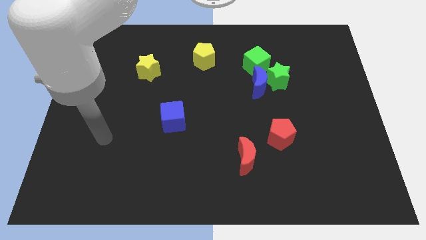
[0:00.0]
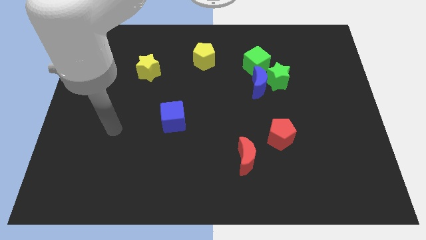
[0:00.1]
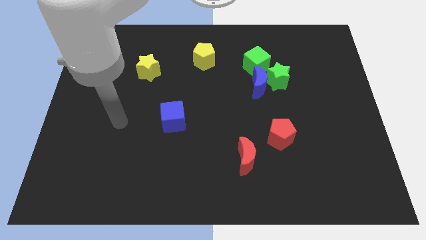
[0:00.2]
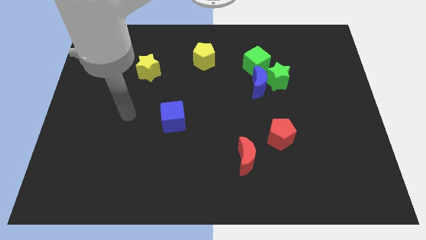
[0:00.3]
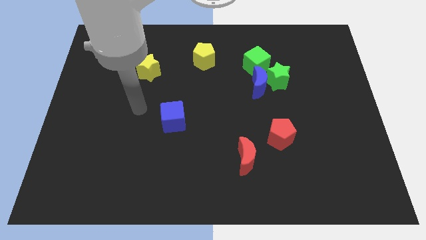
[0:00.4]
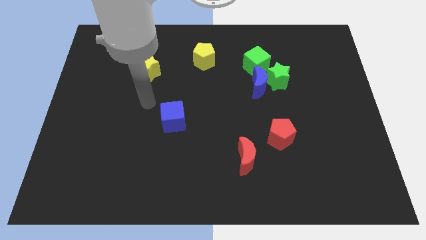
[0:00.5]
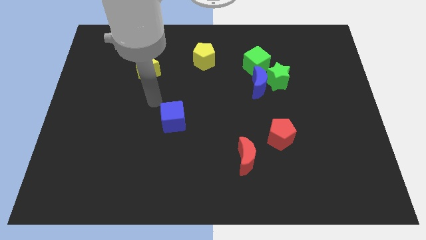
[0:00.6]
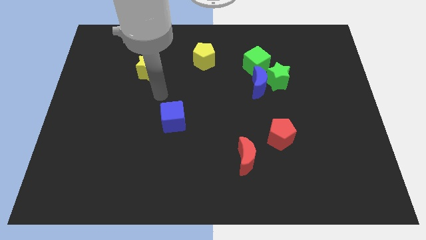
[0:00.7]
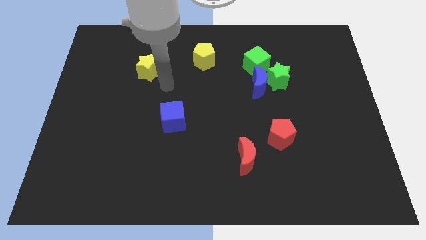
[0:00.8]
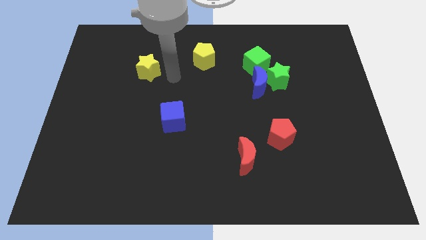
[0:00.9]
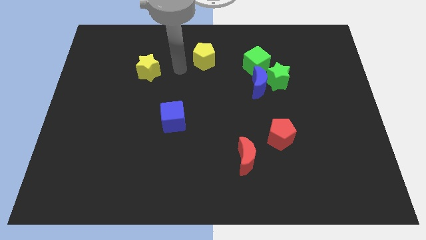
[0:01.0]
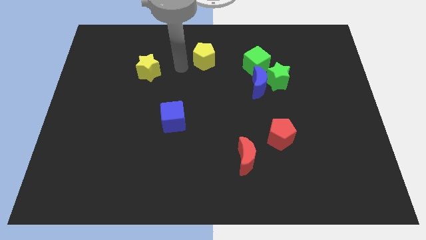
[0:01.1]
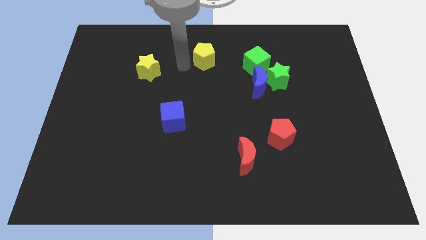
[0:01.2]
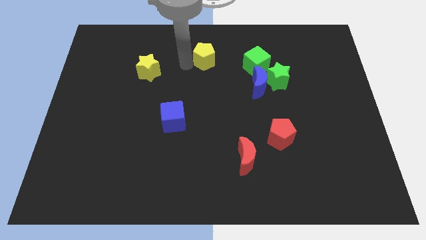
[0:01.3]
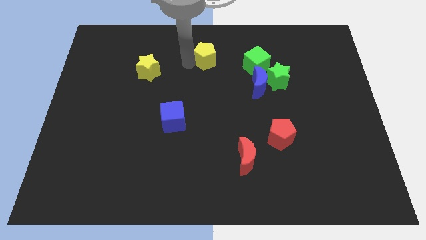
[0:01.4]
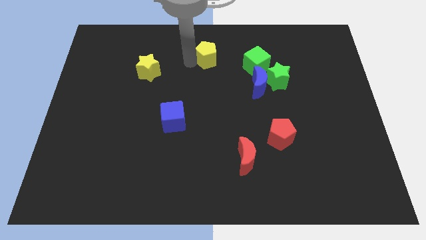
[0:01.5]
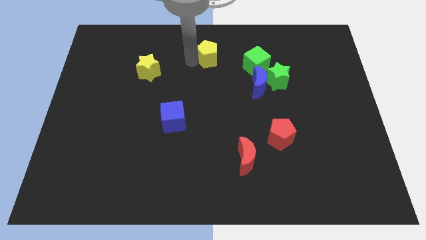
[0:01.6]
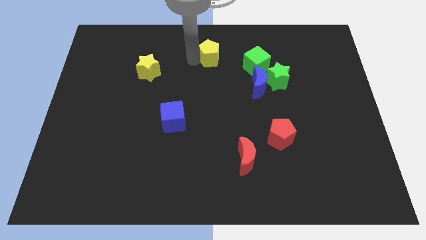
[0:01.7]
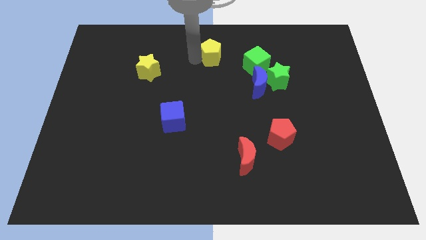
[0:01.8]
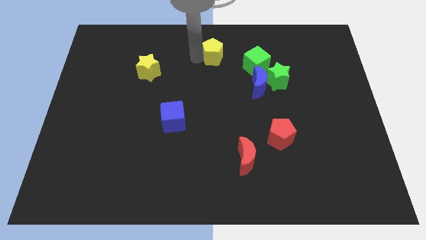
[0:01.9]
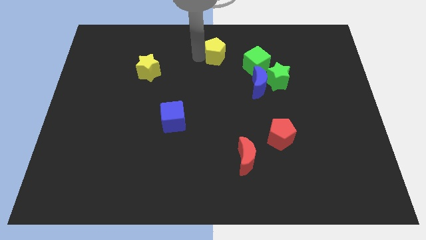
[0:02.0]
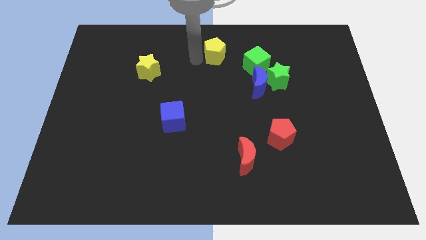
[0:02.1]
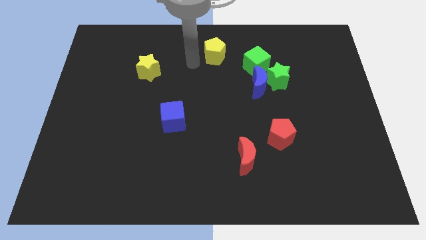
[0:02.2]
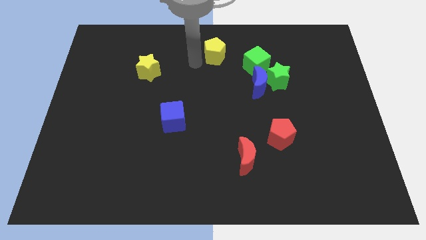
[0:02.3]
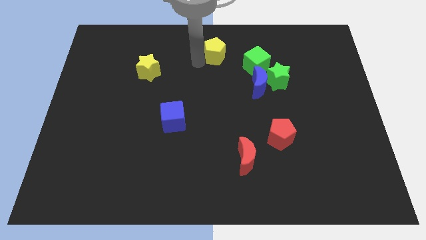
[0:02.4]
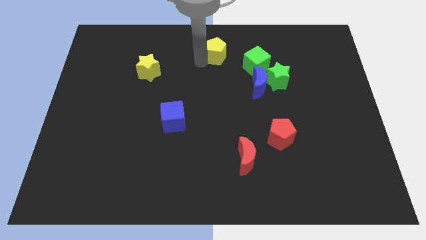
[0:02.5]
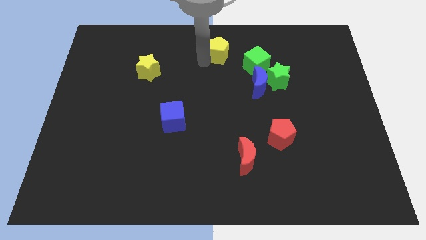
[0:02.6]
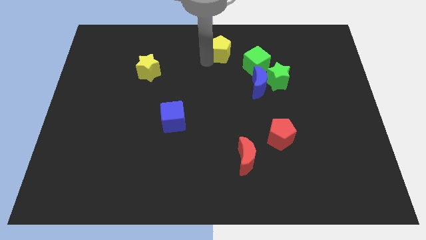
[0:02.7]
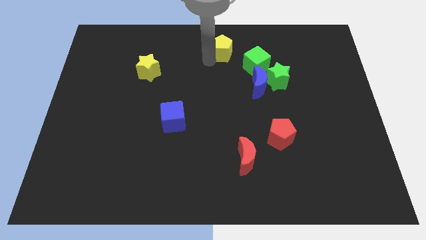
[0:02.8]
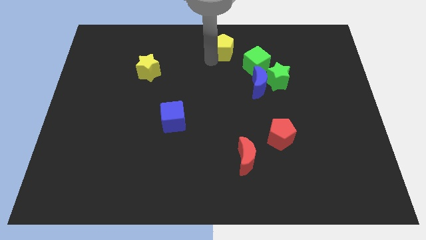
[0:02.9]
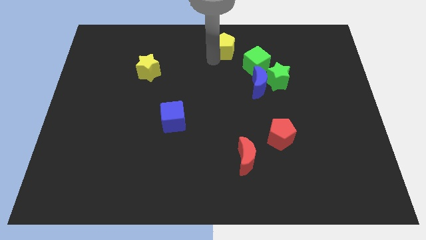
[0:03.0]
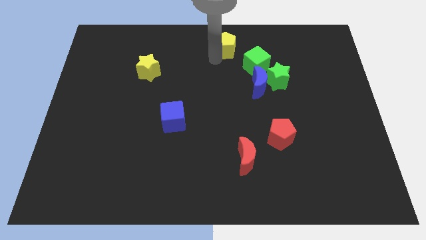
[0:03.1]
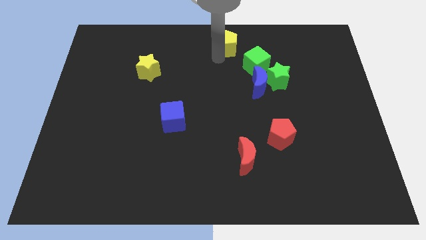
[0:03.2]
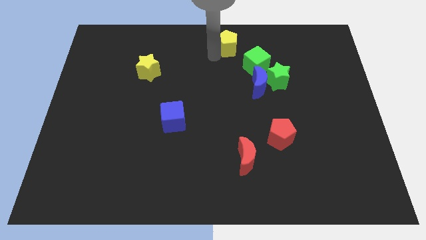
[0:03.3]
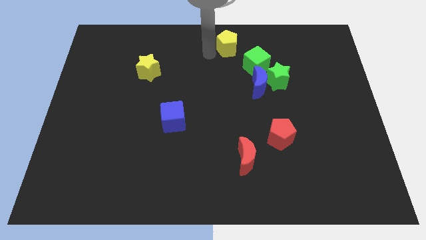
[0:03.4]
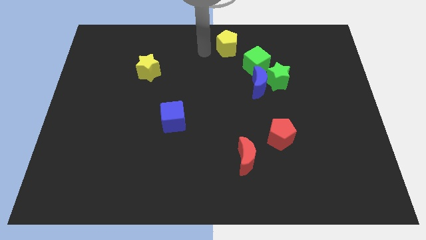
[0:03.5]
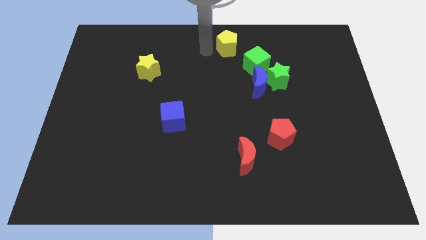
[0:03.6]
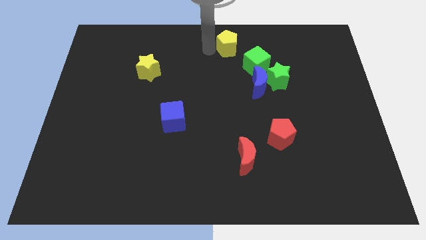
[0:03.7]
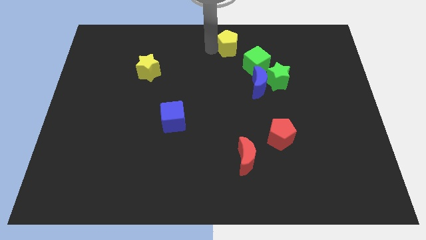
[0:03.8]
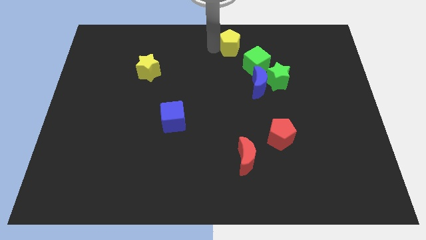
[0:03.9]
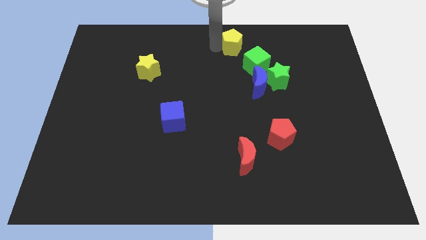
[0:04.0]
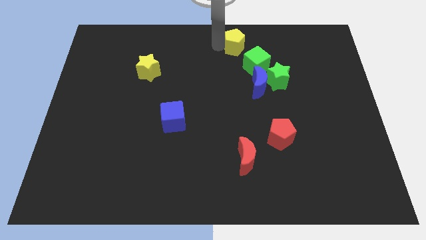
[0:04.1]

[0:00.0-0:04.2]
slide the yellow pentagon to the right a little

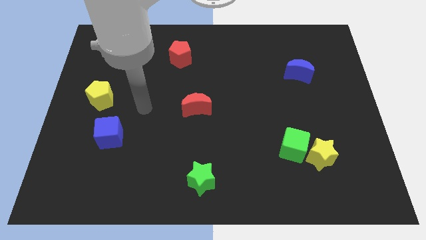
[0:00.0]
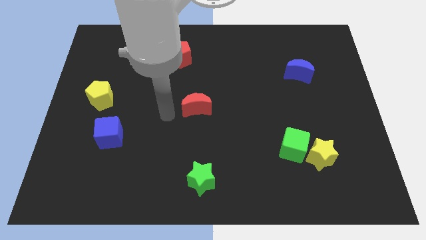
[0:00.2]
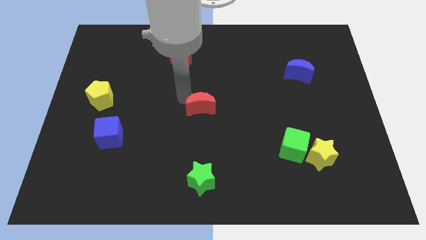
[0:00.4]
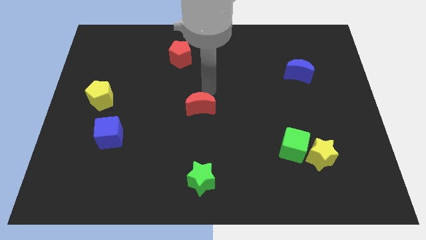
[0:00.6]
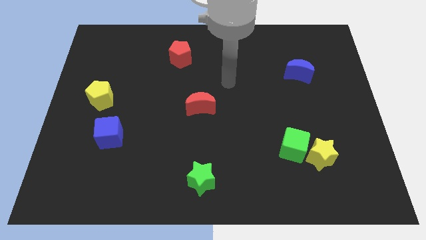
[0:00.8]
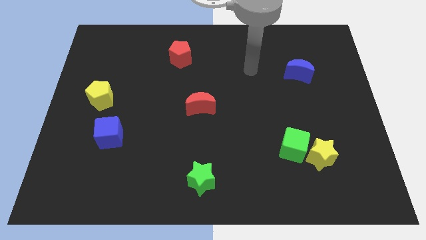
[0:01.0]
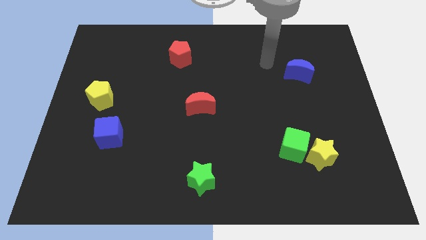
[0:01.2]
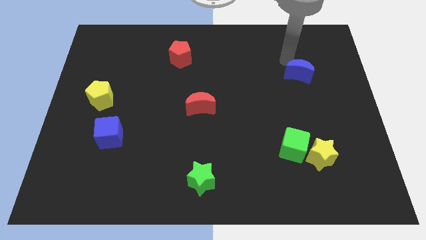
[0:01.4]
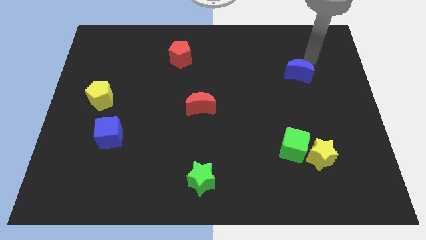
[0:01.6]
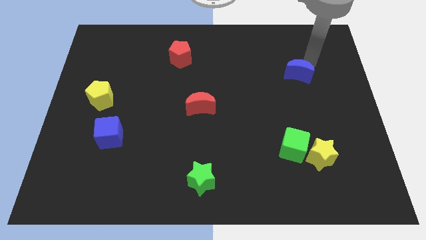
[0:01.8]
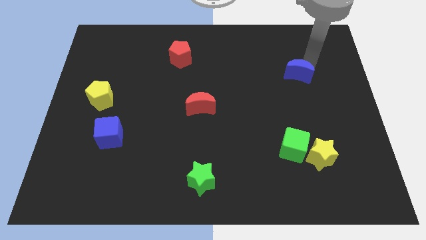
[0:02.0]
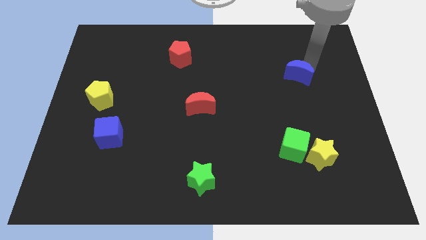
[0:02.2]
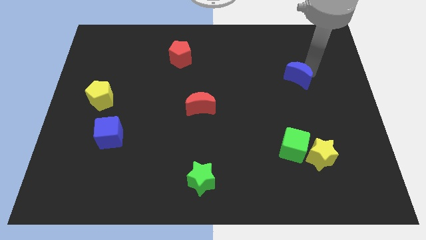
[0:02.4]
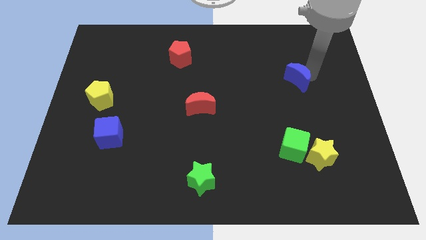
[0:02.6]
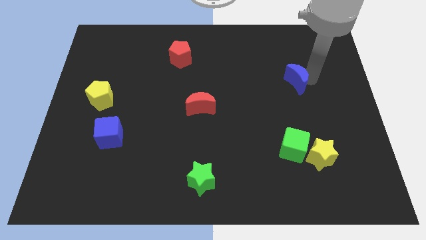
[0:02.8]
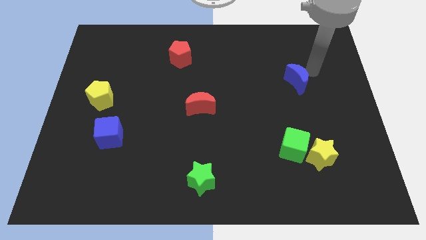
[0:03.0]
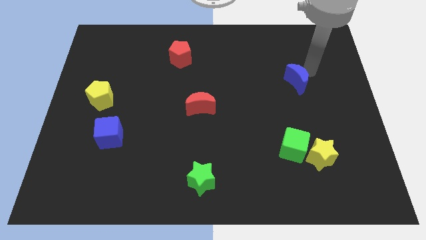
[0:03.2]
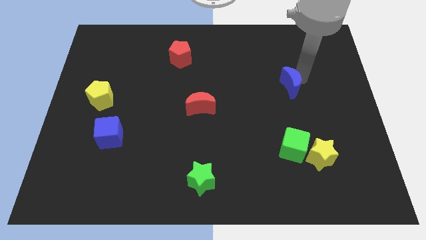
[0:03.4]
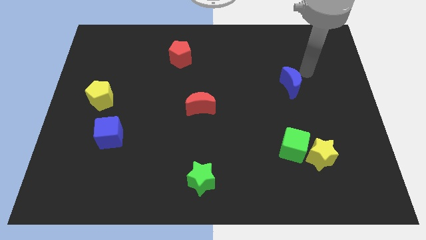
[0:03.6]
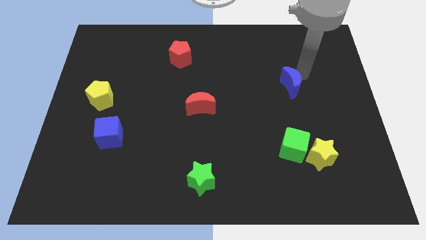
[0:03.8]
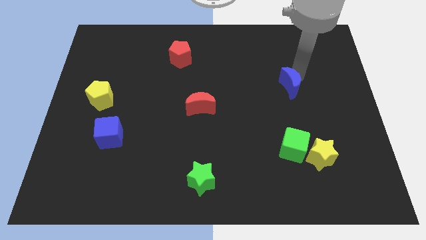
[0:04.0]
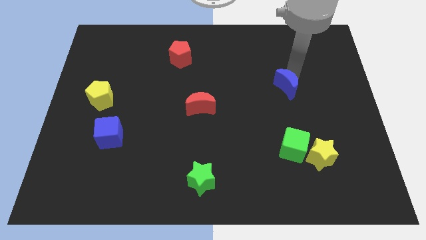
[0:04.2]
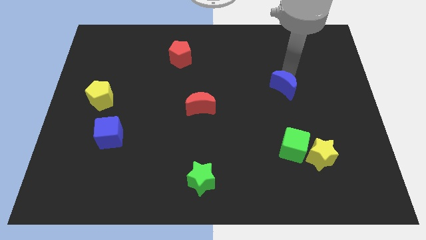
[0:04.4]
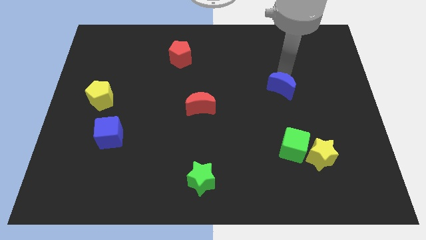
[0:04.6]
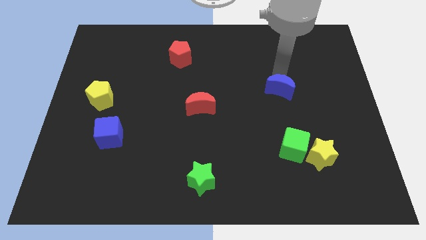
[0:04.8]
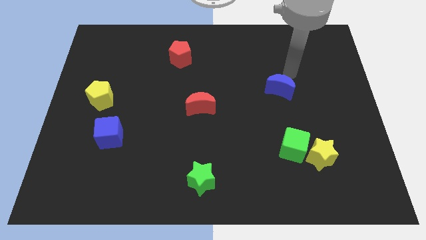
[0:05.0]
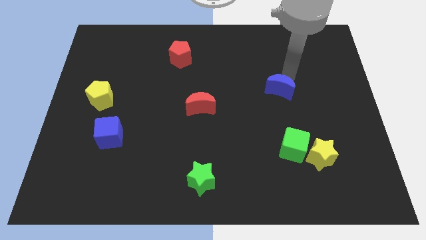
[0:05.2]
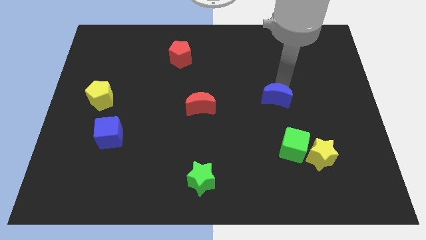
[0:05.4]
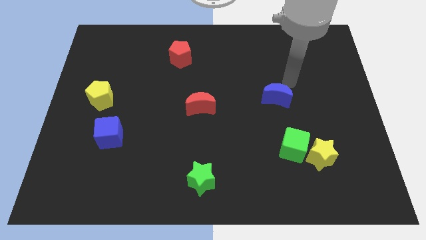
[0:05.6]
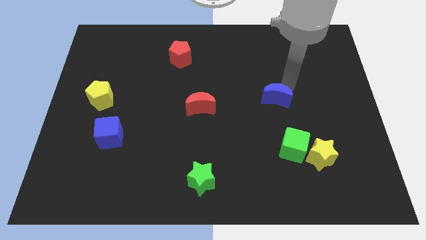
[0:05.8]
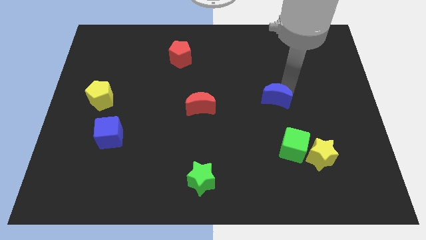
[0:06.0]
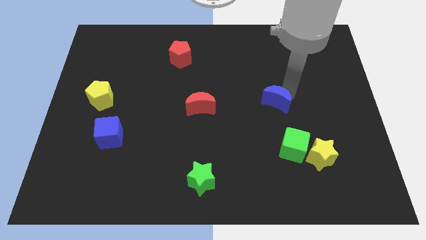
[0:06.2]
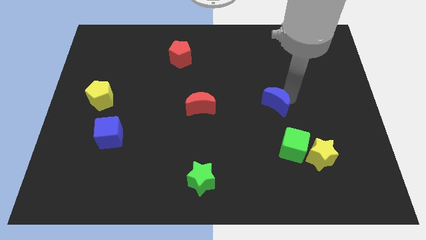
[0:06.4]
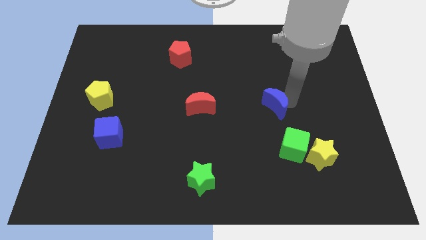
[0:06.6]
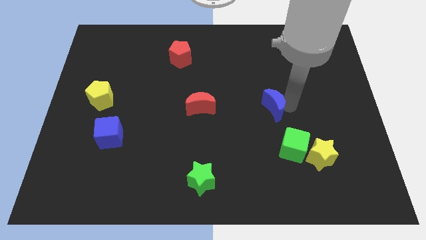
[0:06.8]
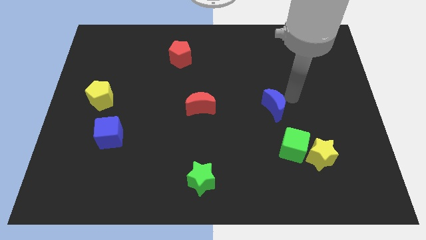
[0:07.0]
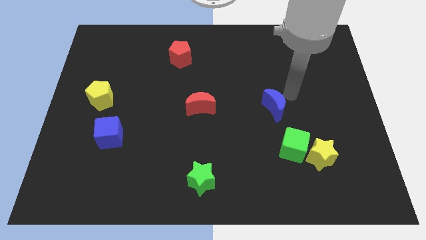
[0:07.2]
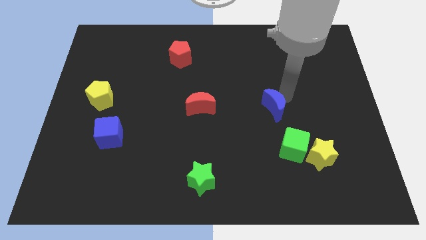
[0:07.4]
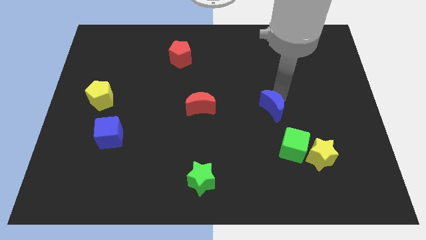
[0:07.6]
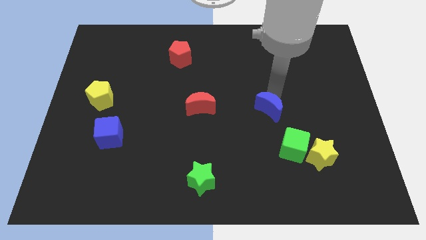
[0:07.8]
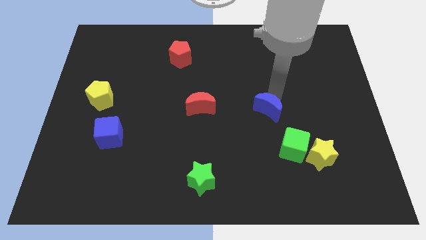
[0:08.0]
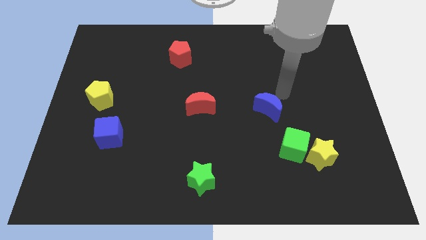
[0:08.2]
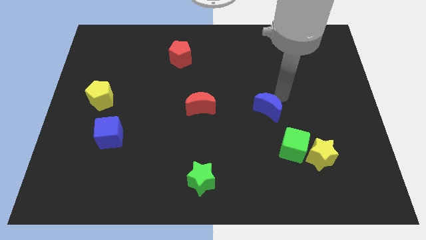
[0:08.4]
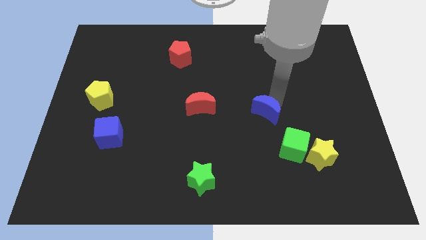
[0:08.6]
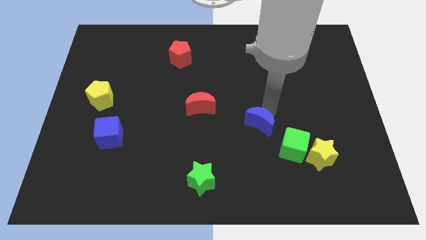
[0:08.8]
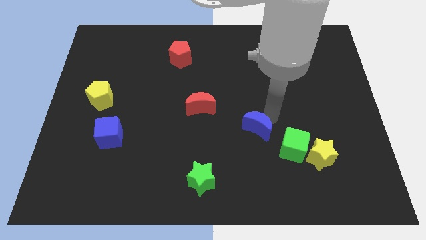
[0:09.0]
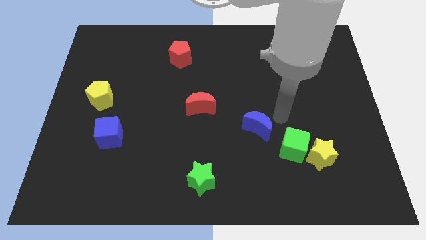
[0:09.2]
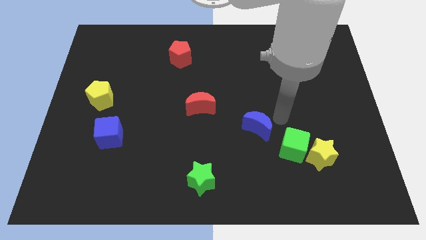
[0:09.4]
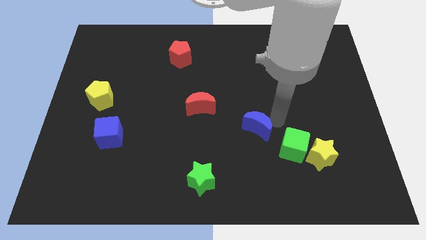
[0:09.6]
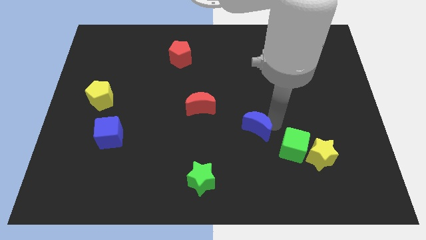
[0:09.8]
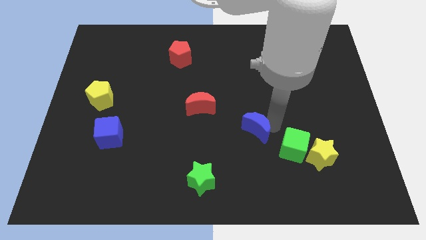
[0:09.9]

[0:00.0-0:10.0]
move the blue moon diagonally down and left
